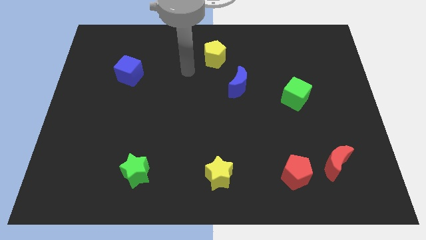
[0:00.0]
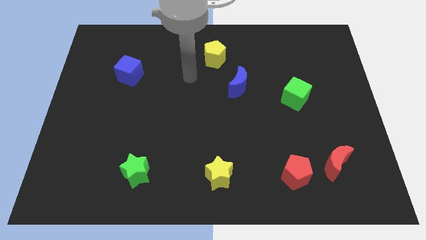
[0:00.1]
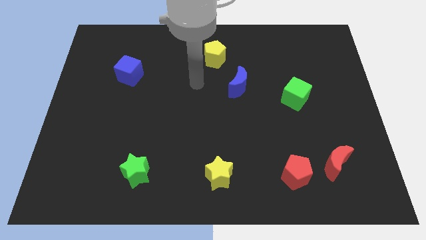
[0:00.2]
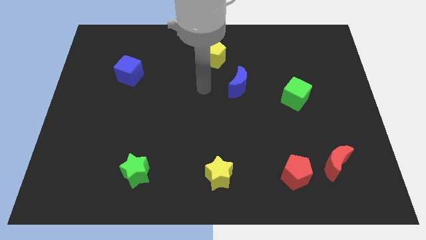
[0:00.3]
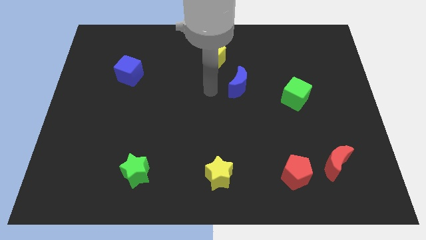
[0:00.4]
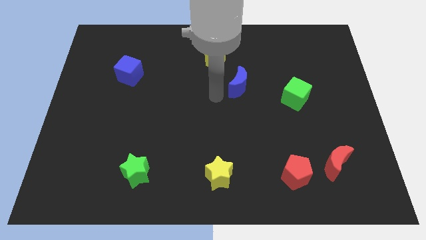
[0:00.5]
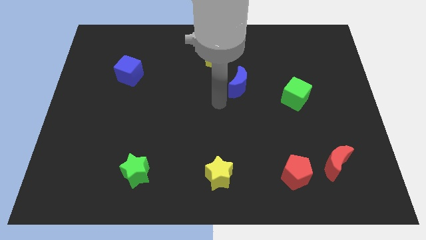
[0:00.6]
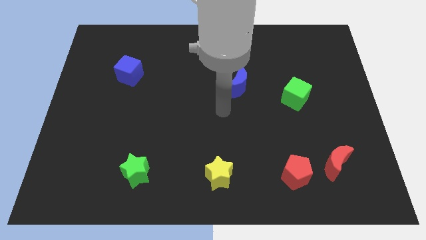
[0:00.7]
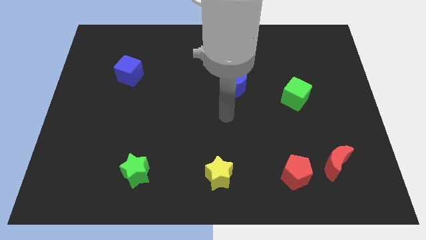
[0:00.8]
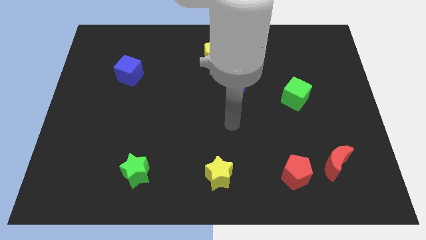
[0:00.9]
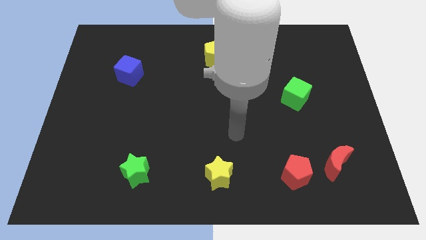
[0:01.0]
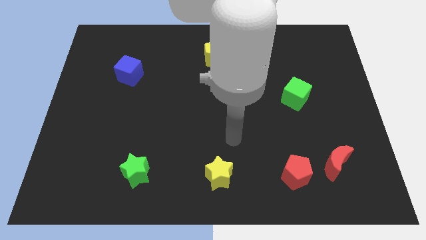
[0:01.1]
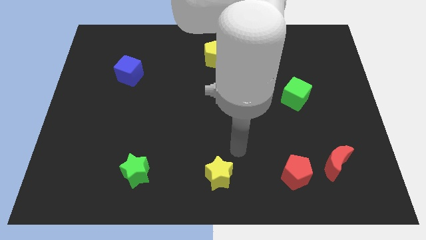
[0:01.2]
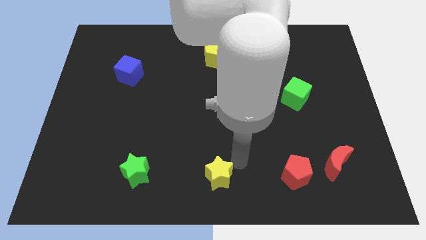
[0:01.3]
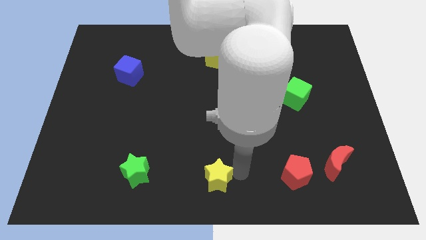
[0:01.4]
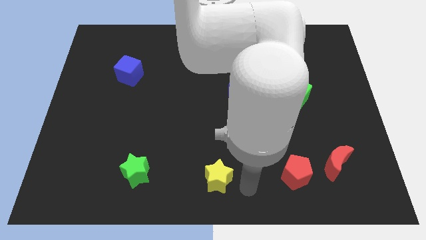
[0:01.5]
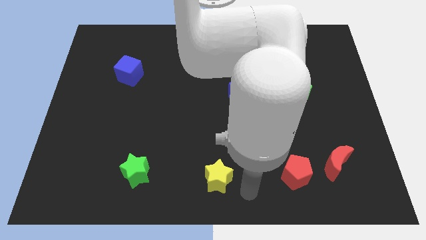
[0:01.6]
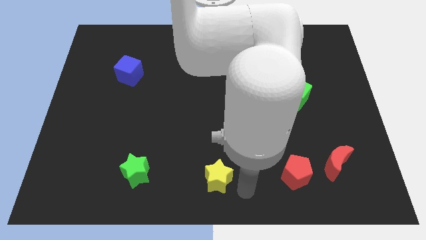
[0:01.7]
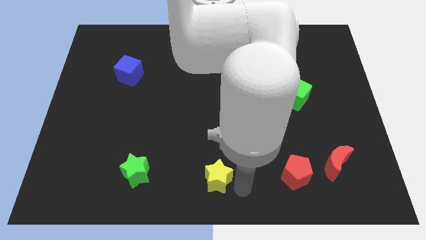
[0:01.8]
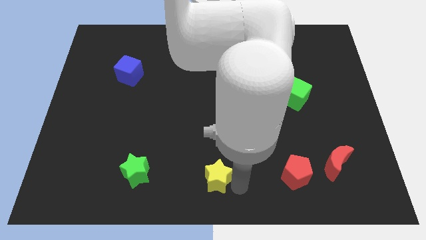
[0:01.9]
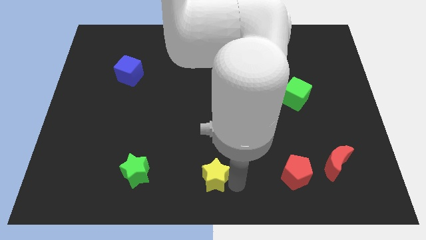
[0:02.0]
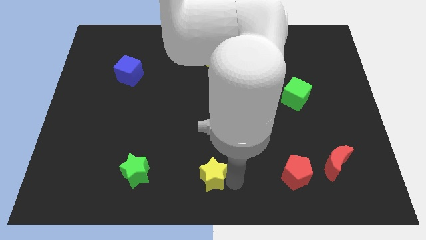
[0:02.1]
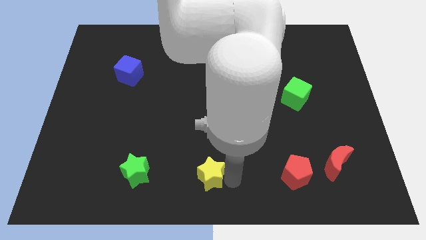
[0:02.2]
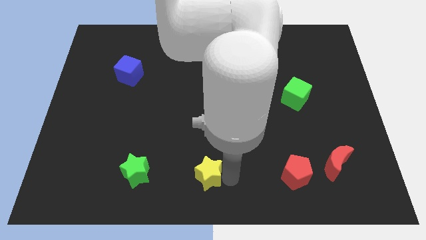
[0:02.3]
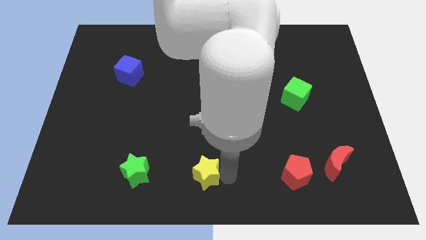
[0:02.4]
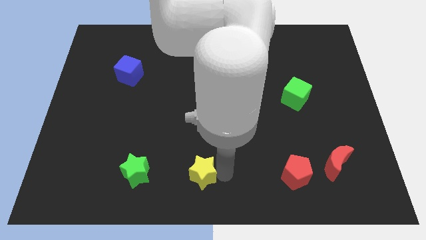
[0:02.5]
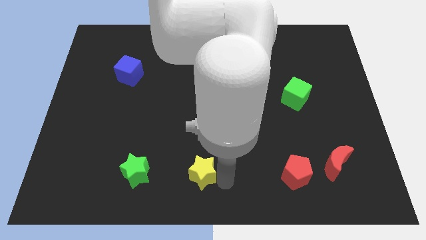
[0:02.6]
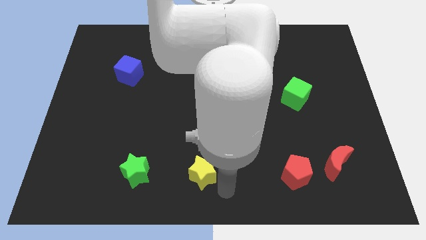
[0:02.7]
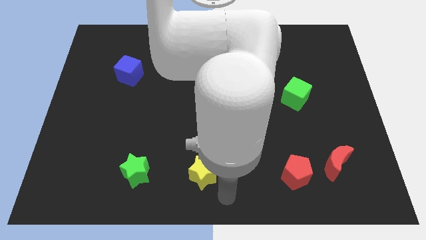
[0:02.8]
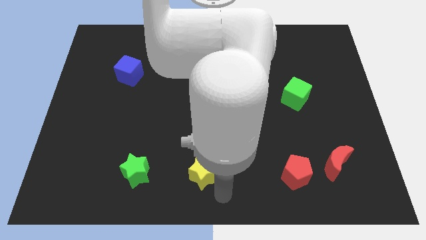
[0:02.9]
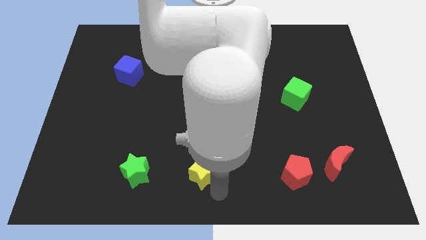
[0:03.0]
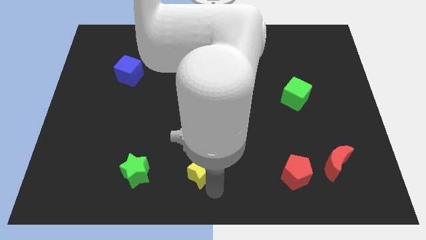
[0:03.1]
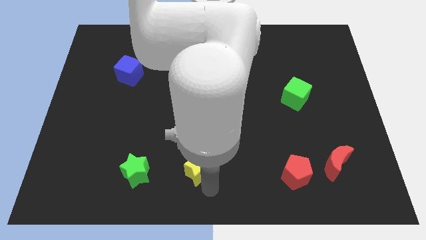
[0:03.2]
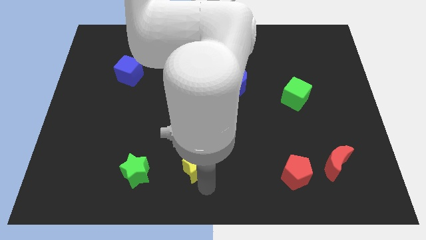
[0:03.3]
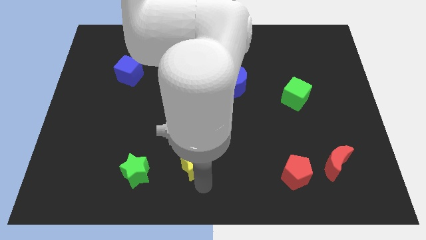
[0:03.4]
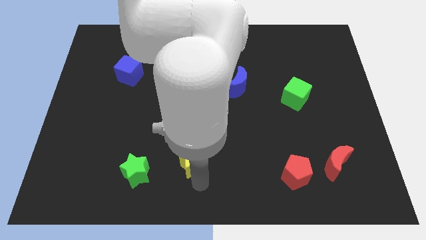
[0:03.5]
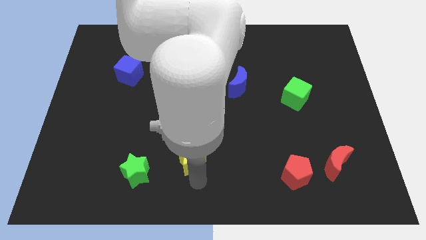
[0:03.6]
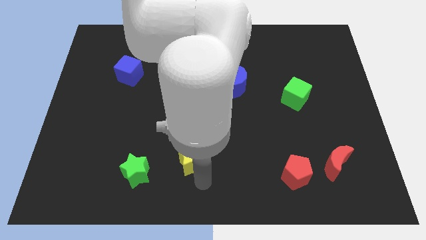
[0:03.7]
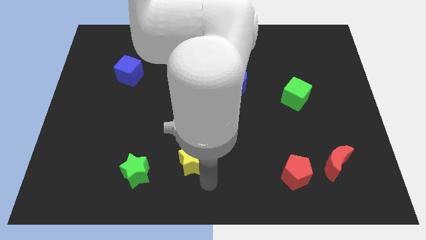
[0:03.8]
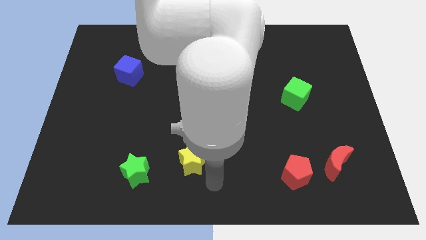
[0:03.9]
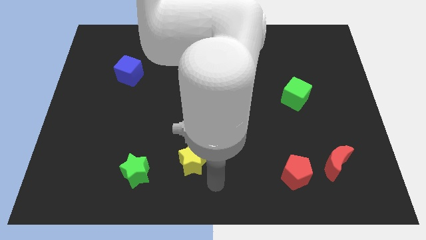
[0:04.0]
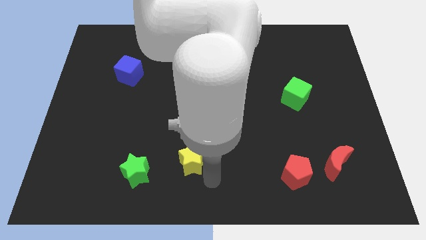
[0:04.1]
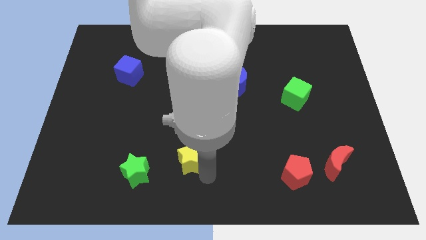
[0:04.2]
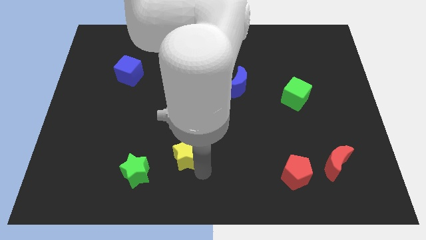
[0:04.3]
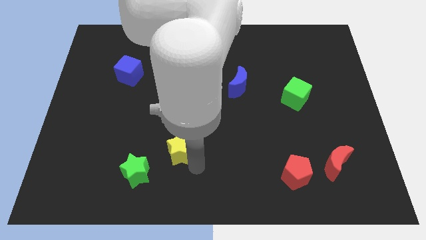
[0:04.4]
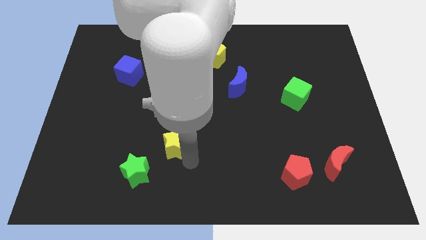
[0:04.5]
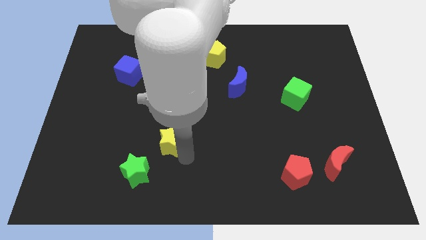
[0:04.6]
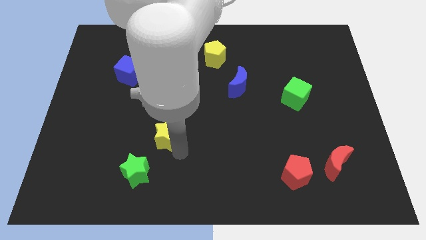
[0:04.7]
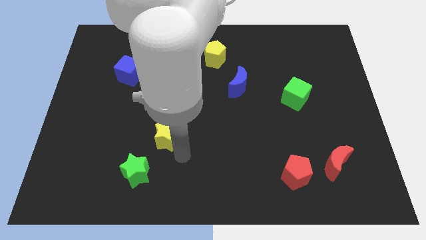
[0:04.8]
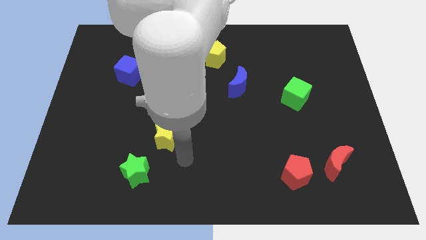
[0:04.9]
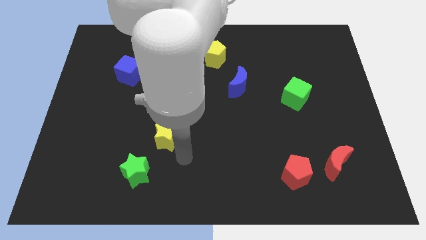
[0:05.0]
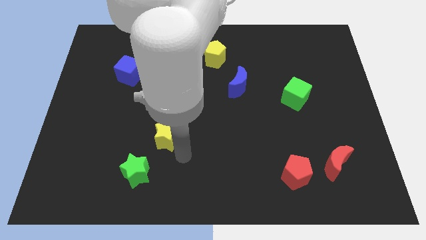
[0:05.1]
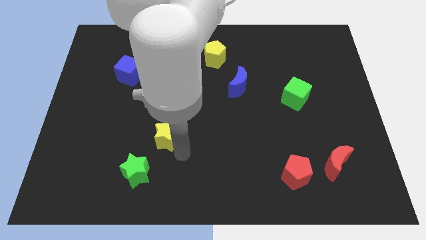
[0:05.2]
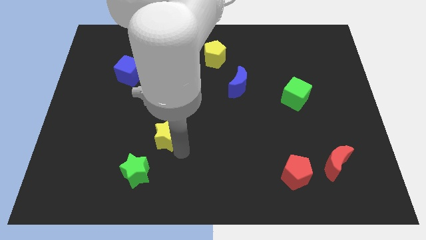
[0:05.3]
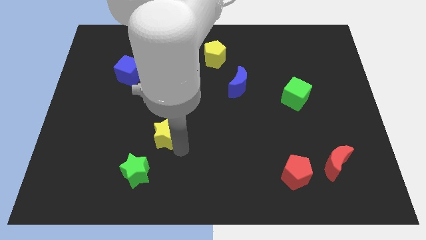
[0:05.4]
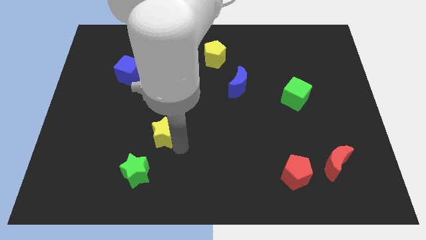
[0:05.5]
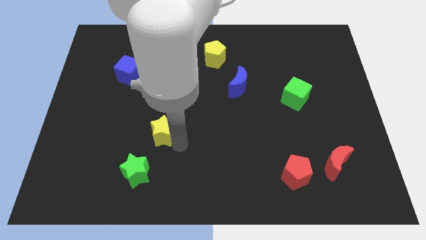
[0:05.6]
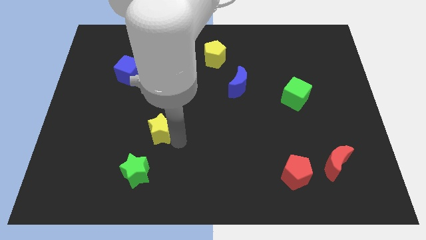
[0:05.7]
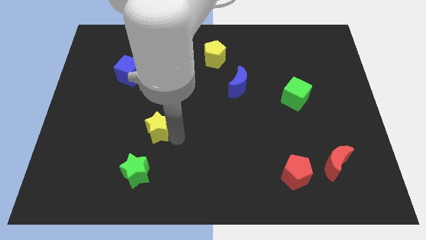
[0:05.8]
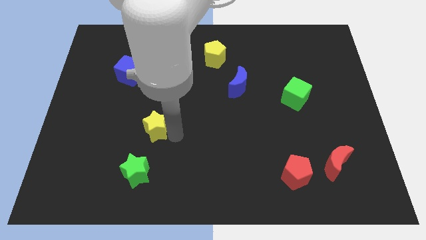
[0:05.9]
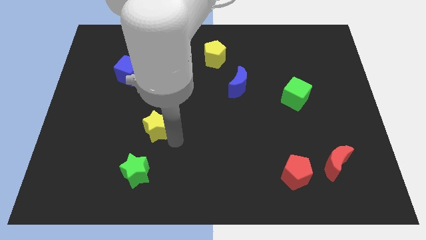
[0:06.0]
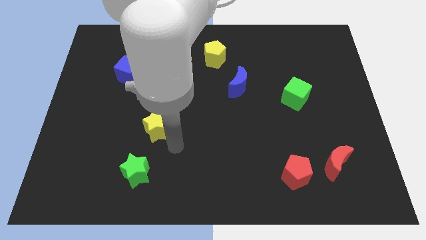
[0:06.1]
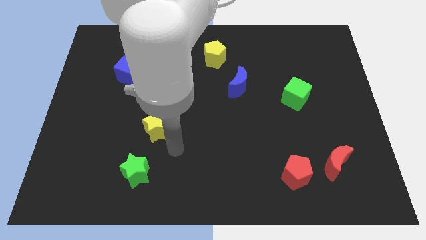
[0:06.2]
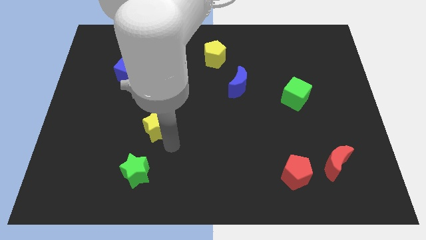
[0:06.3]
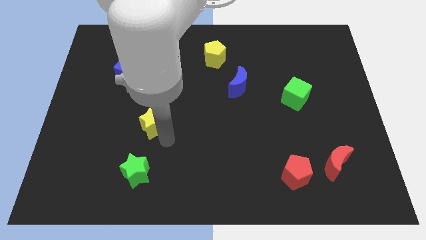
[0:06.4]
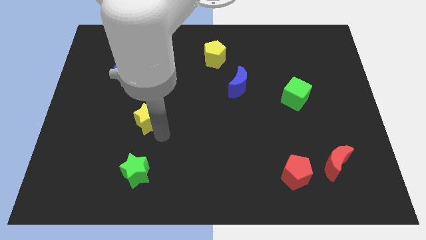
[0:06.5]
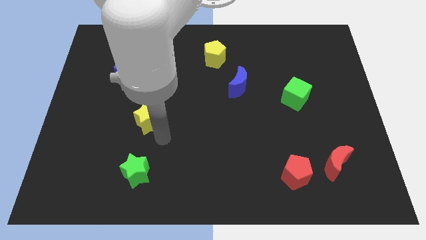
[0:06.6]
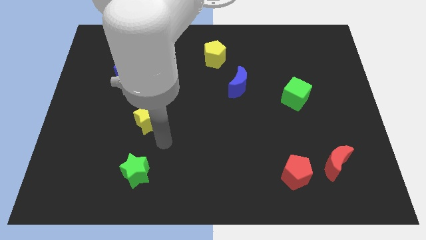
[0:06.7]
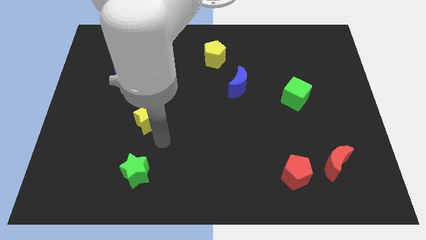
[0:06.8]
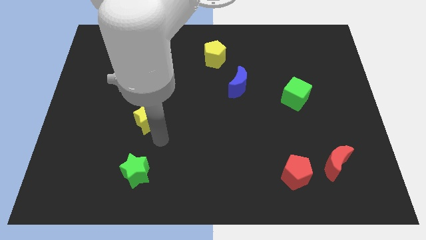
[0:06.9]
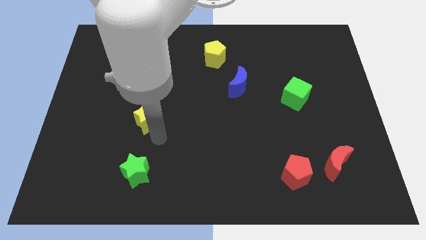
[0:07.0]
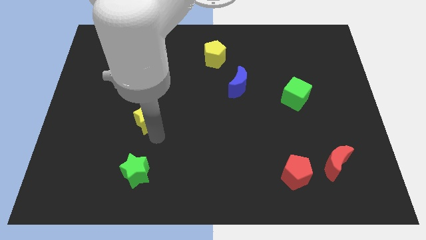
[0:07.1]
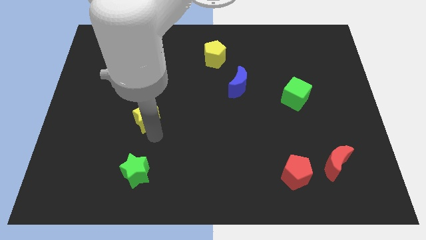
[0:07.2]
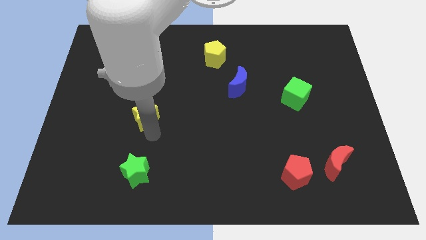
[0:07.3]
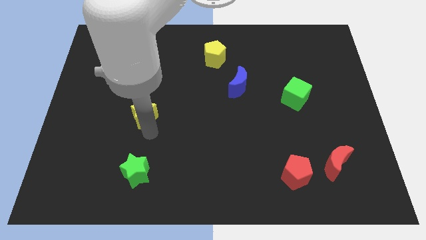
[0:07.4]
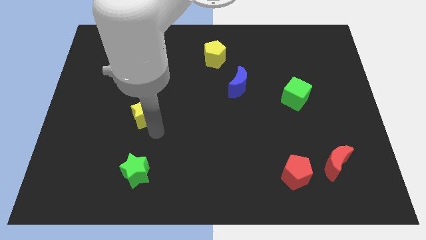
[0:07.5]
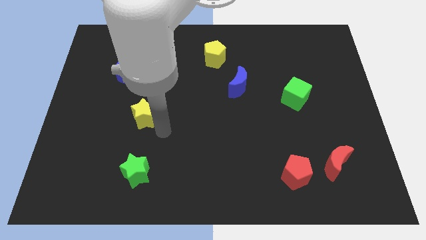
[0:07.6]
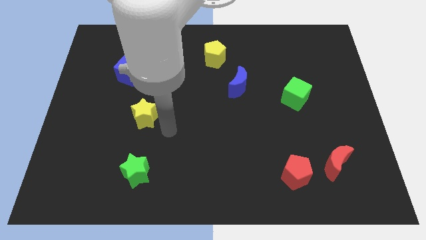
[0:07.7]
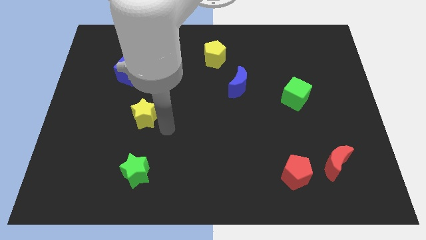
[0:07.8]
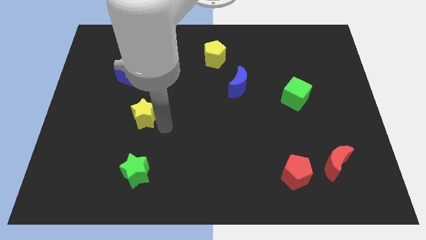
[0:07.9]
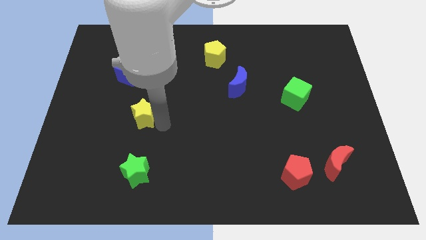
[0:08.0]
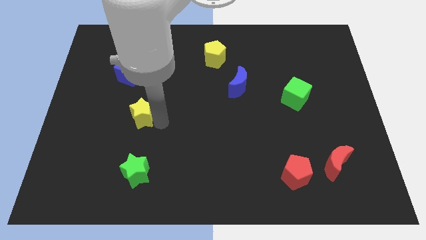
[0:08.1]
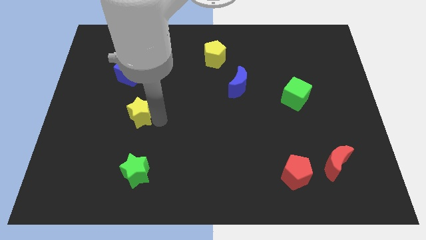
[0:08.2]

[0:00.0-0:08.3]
put the yellow star to the bottom side of the blue cube
